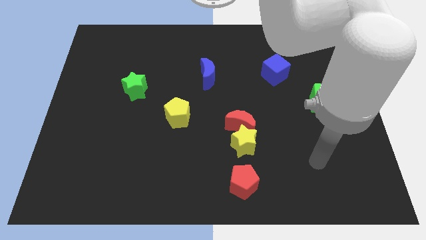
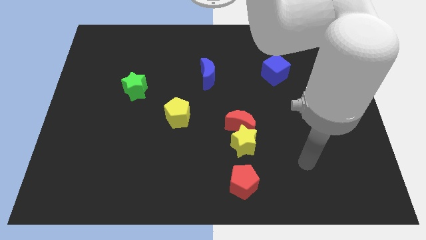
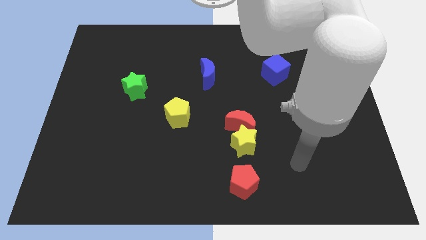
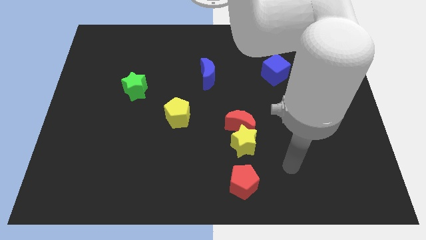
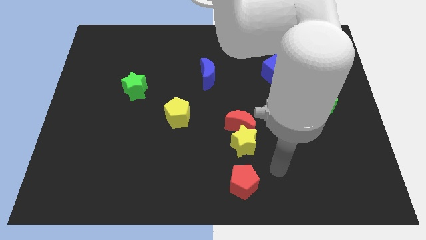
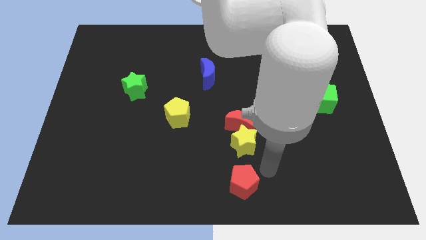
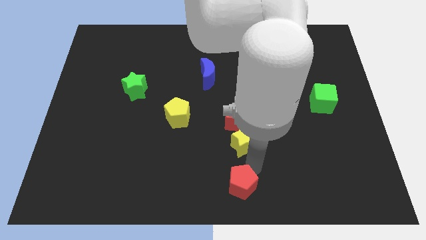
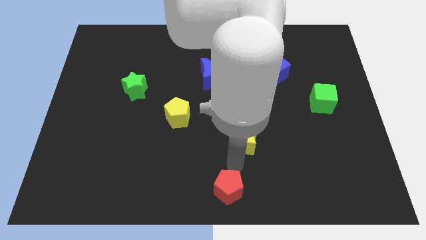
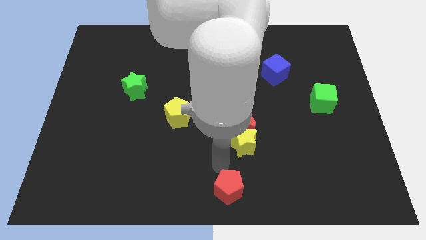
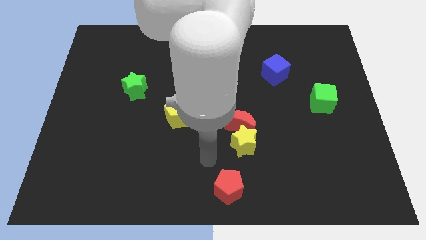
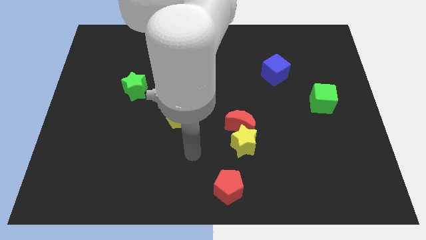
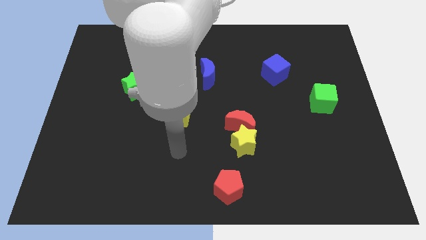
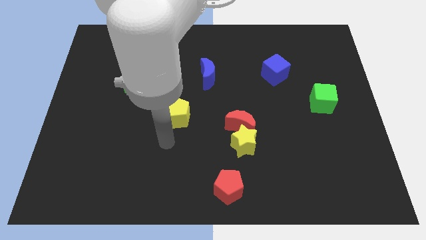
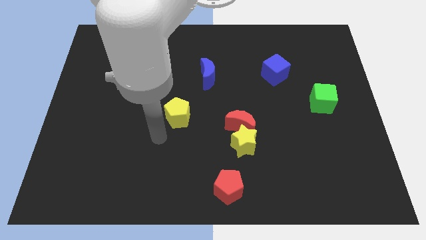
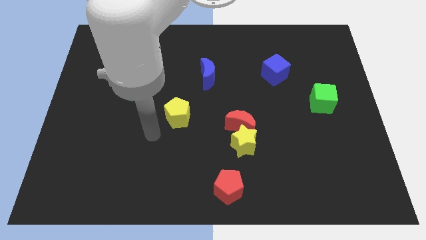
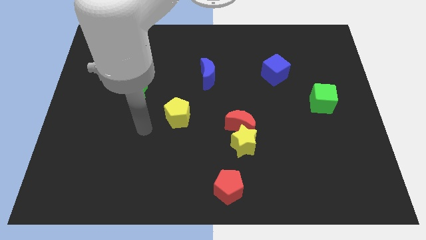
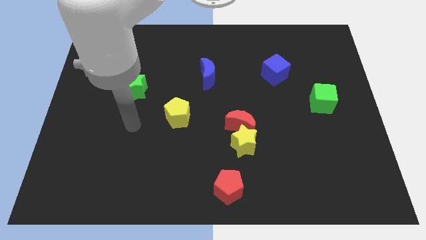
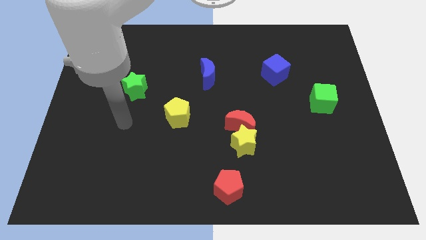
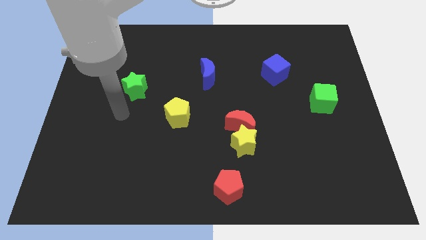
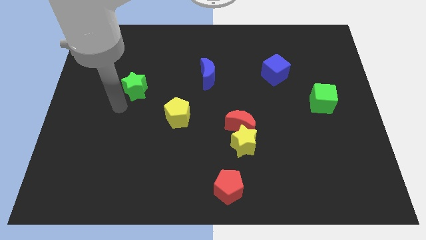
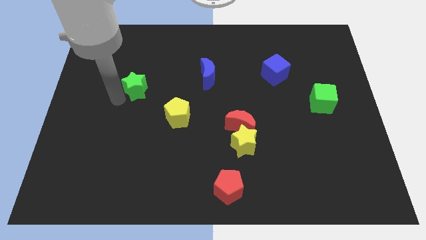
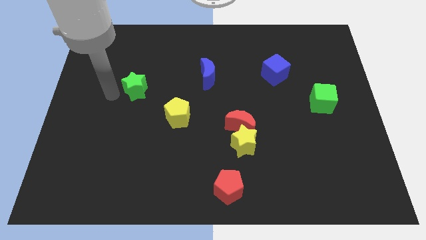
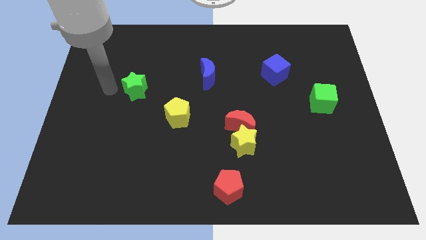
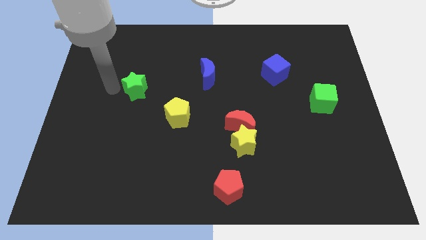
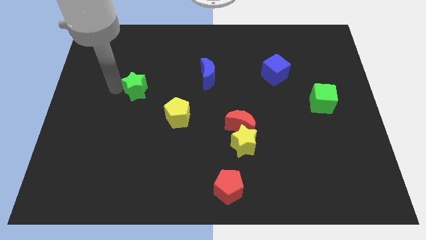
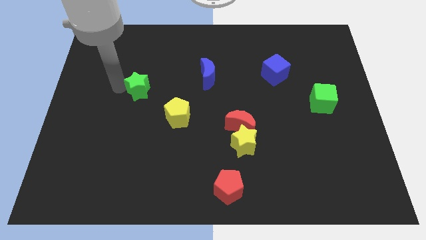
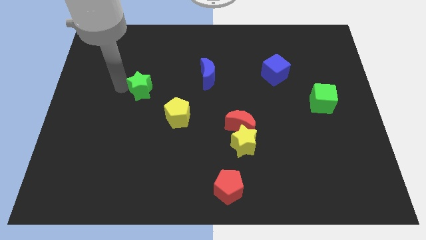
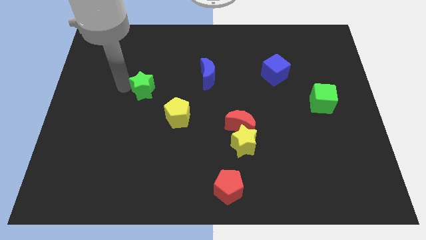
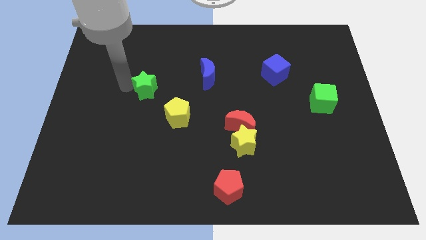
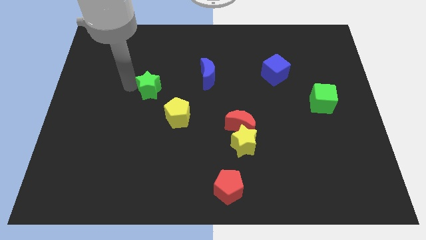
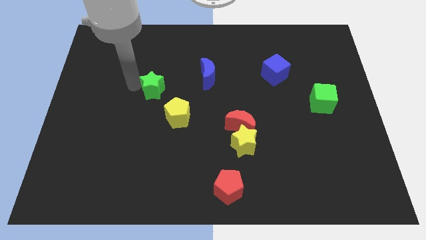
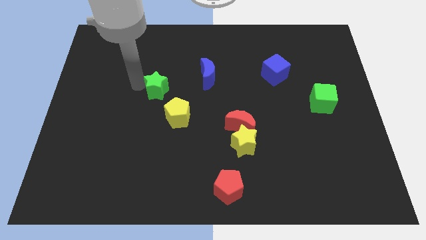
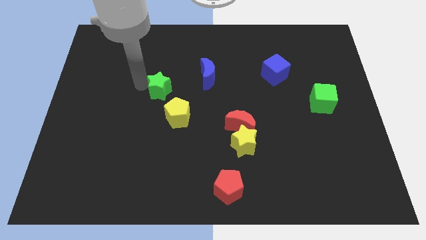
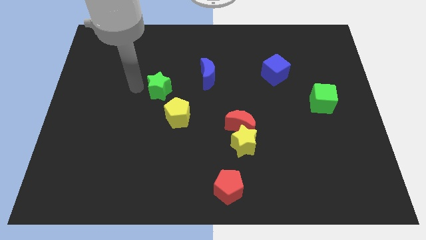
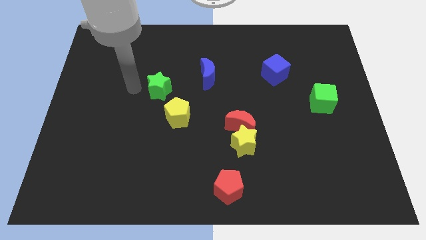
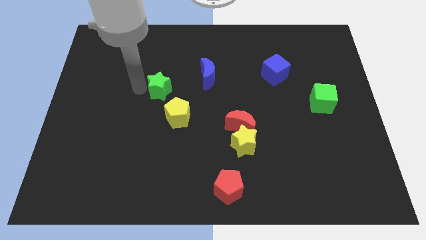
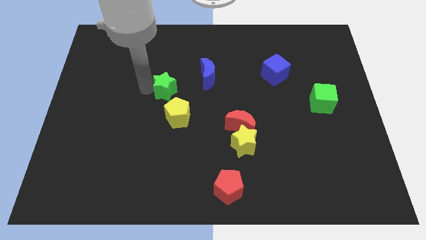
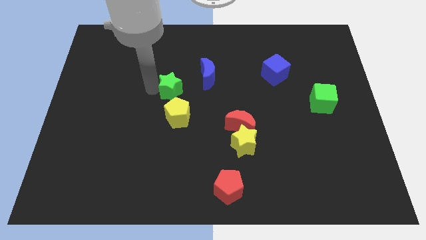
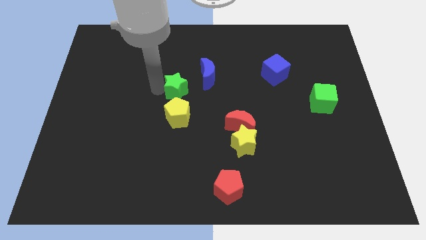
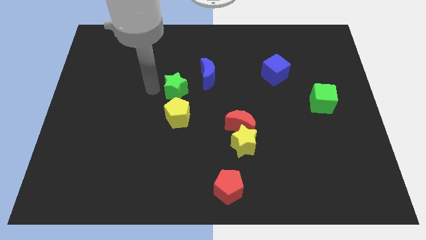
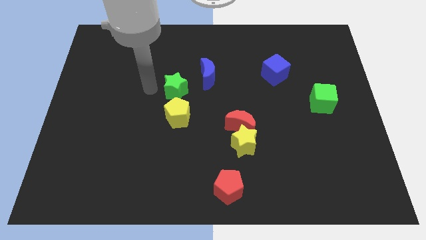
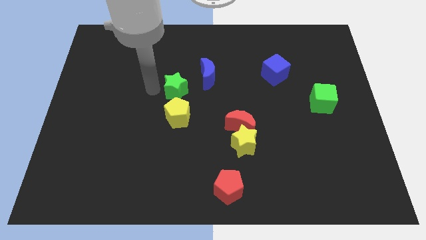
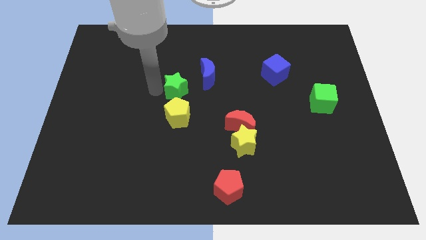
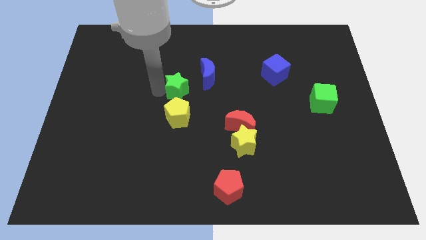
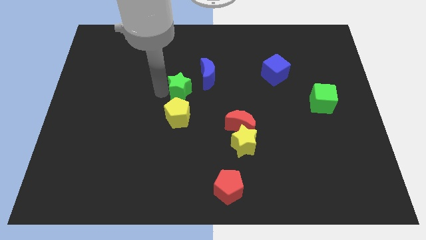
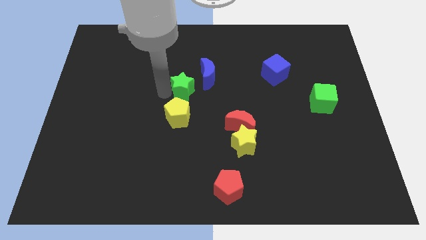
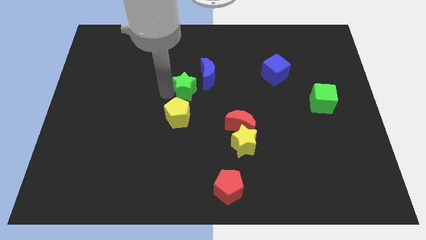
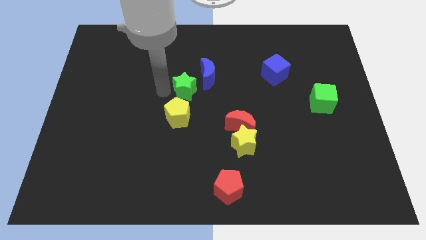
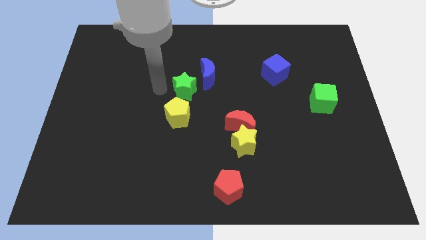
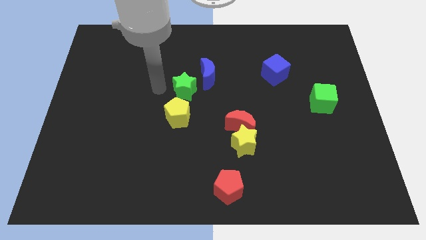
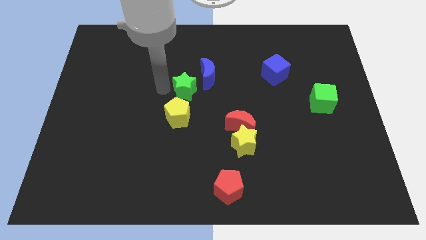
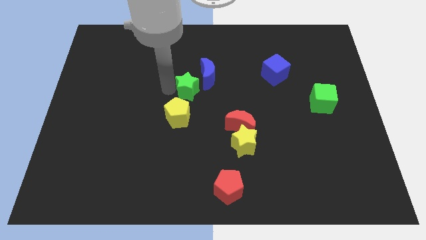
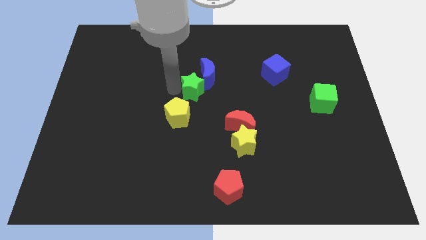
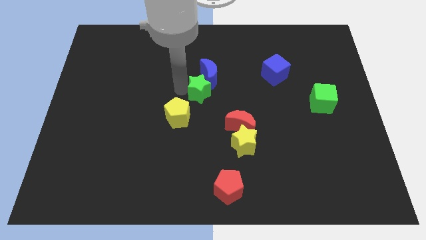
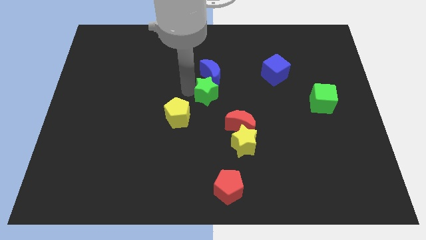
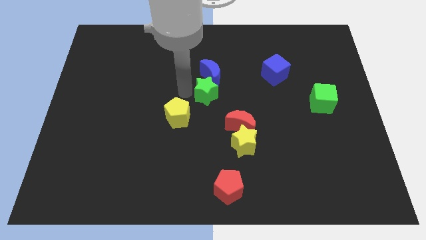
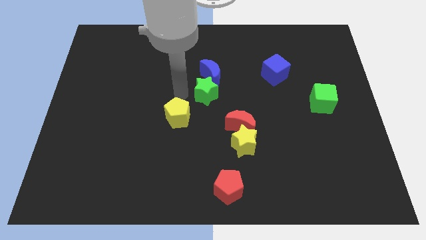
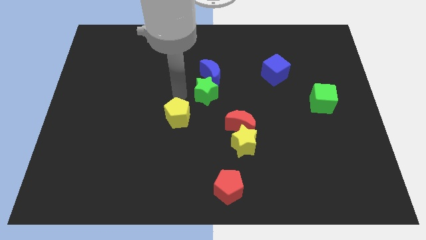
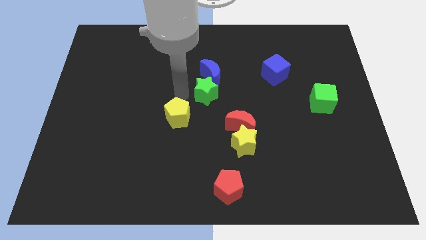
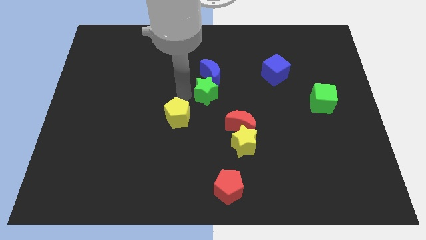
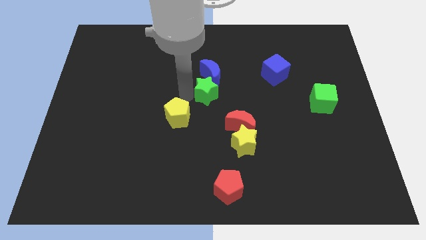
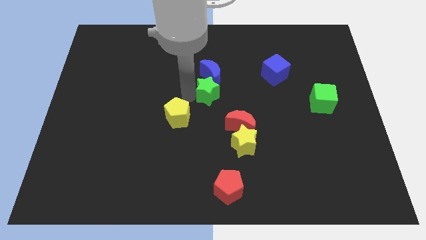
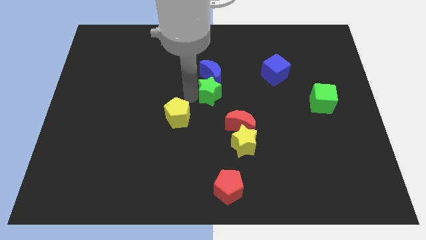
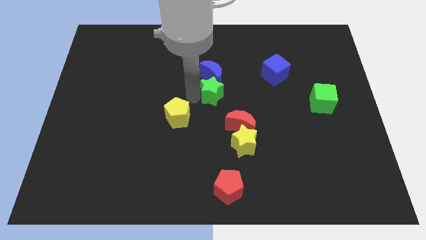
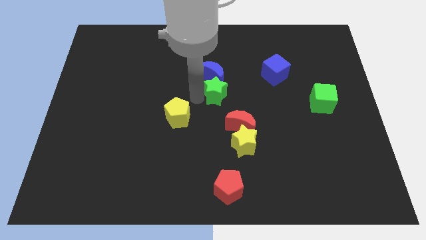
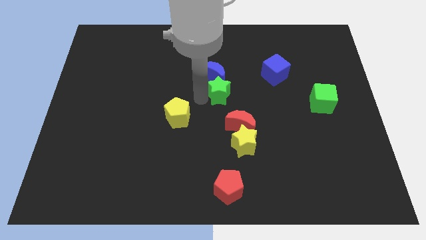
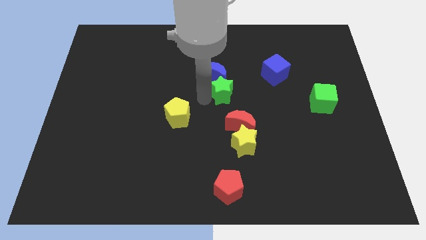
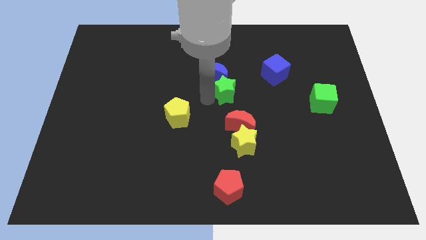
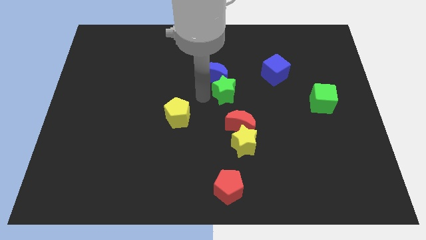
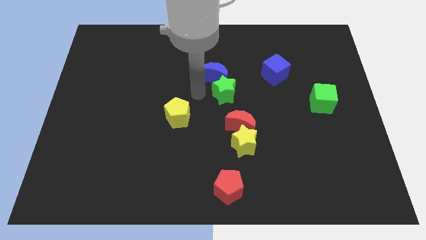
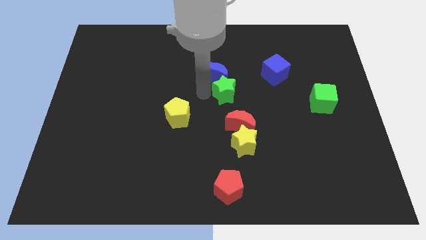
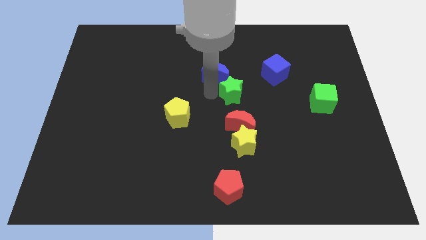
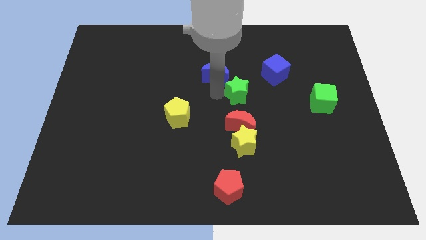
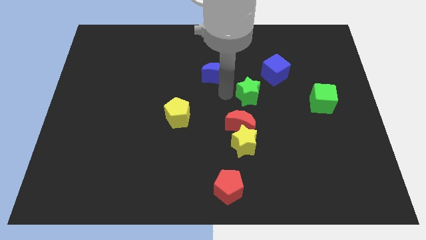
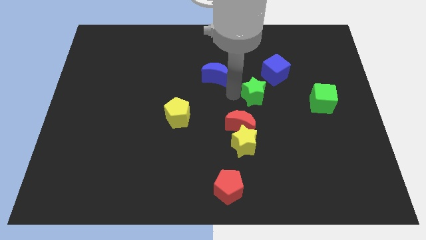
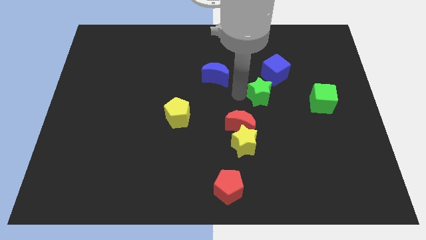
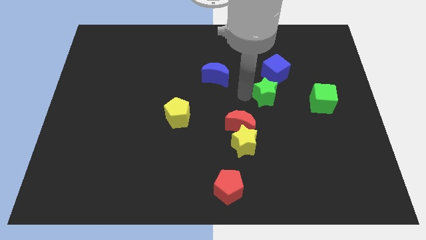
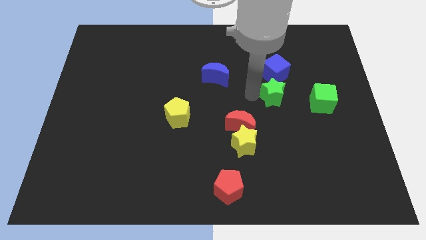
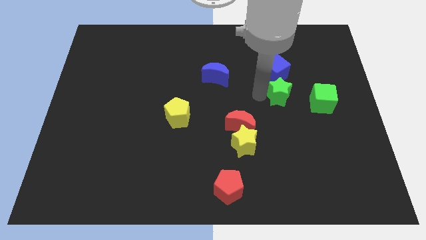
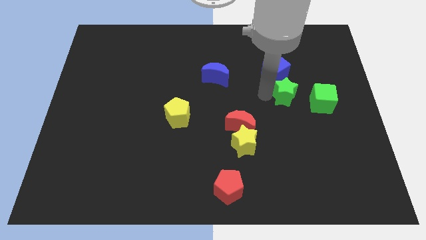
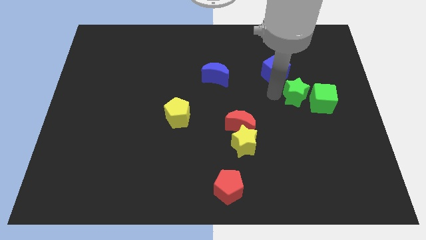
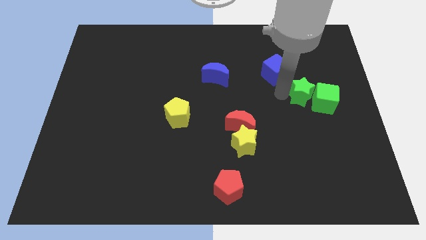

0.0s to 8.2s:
put the green star to the green cube
